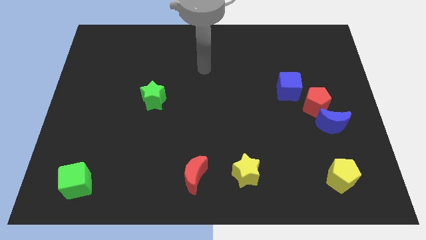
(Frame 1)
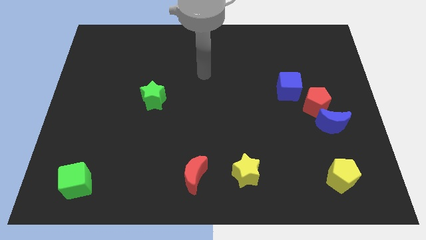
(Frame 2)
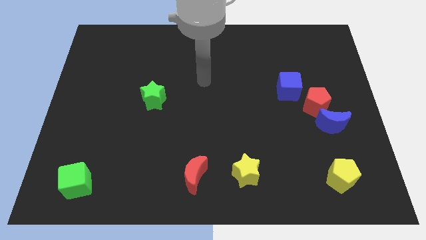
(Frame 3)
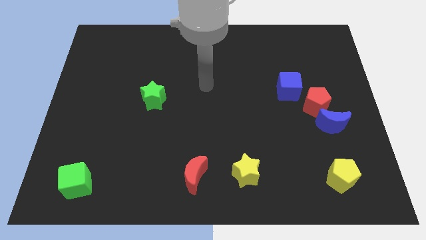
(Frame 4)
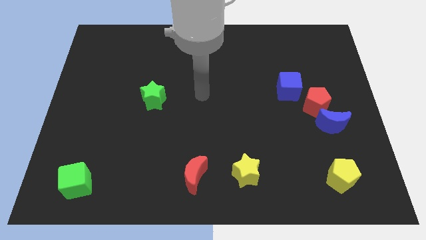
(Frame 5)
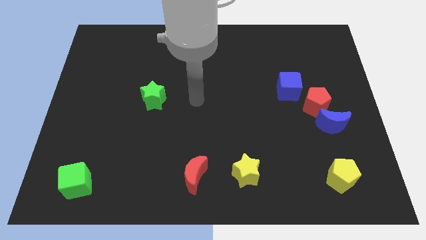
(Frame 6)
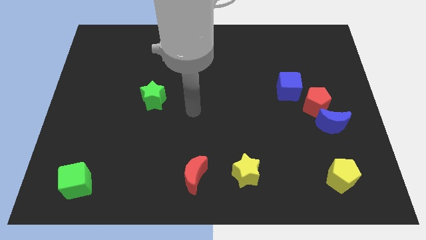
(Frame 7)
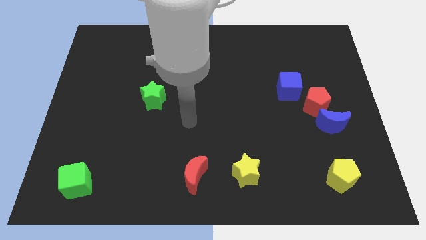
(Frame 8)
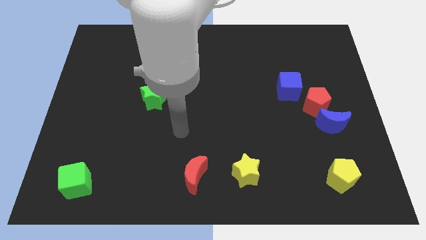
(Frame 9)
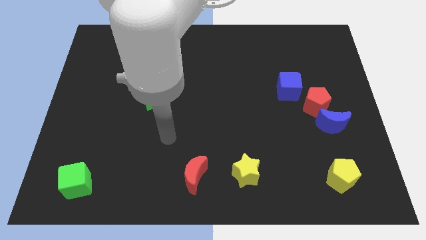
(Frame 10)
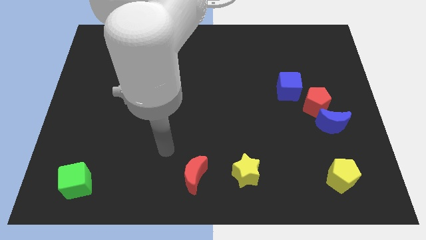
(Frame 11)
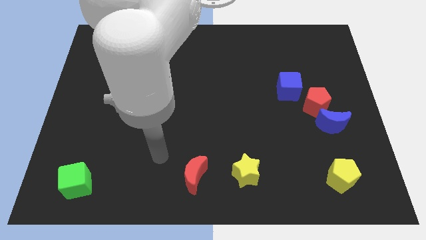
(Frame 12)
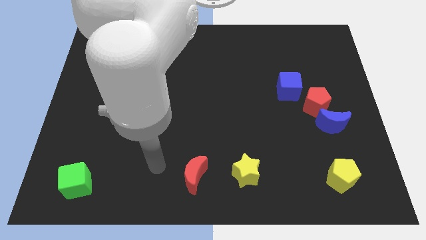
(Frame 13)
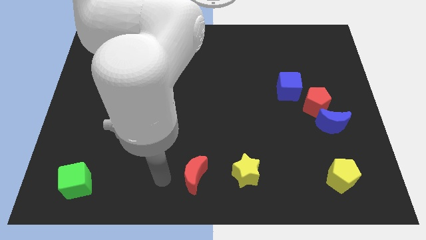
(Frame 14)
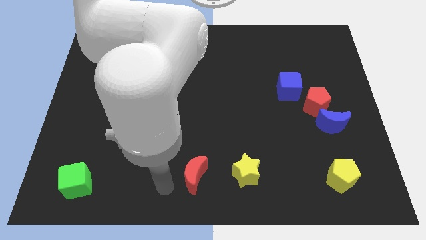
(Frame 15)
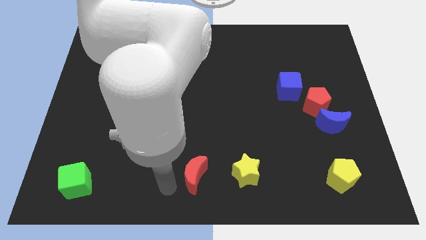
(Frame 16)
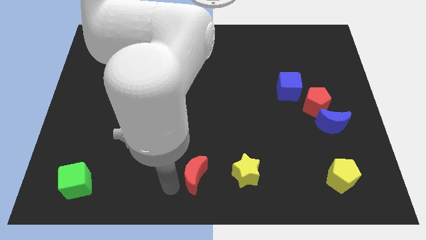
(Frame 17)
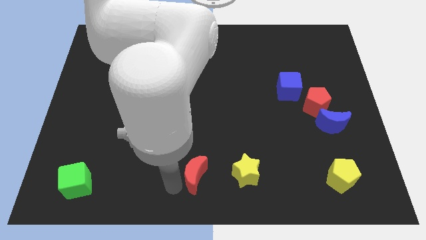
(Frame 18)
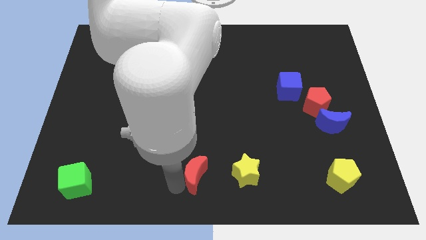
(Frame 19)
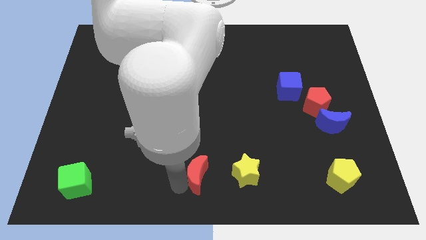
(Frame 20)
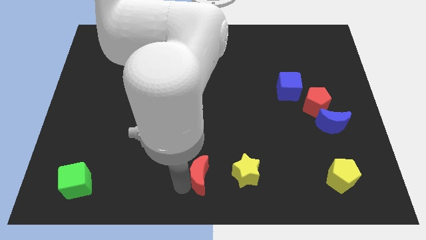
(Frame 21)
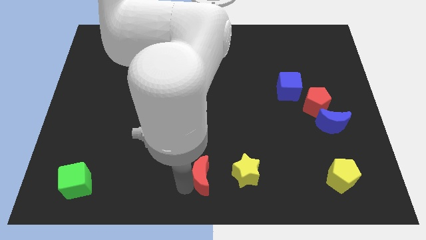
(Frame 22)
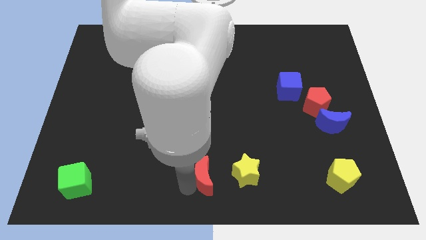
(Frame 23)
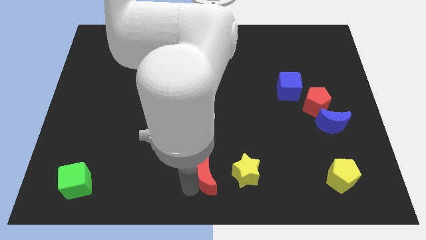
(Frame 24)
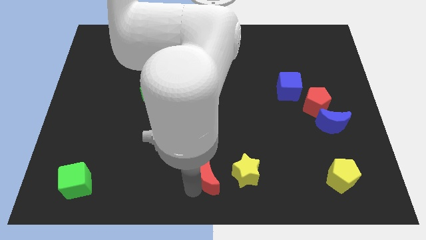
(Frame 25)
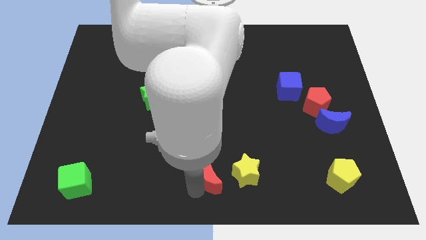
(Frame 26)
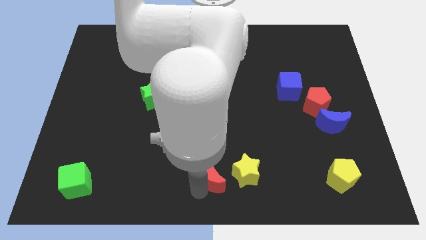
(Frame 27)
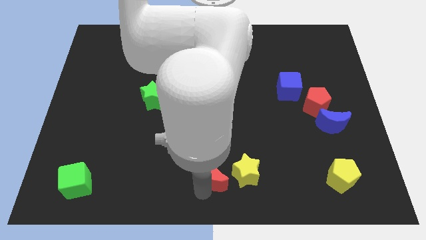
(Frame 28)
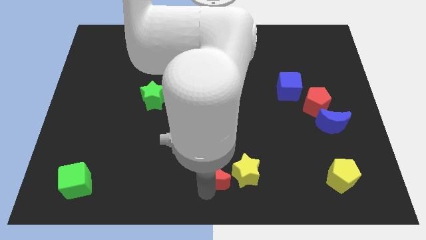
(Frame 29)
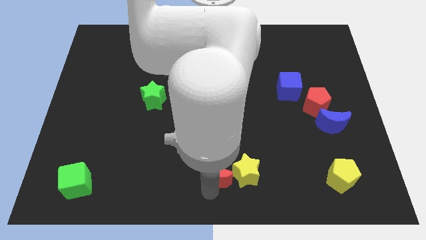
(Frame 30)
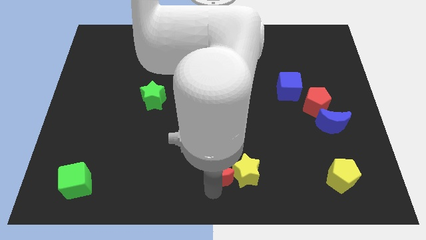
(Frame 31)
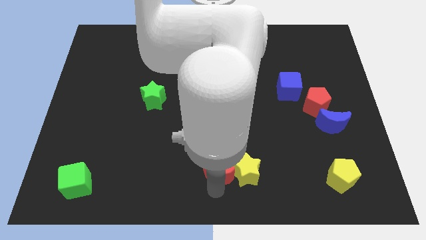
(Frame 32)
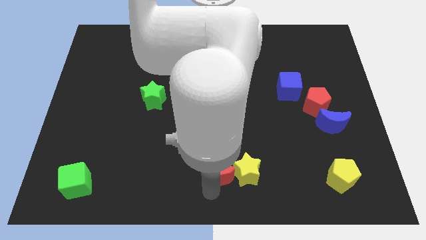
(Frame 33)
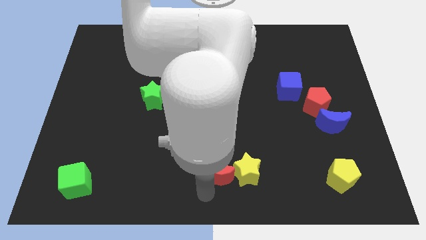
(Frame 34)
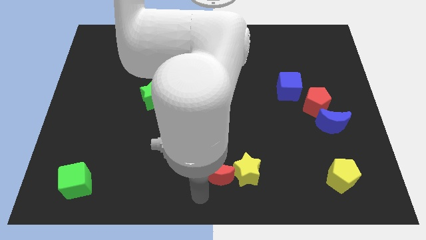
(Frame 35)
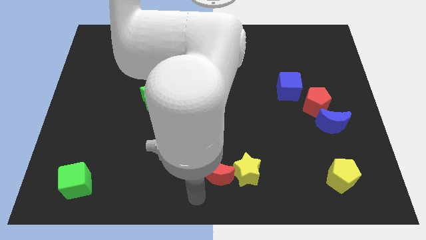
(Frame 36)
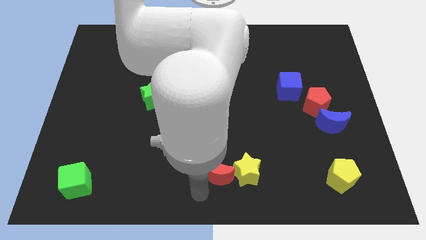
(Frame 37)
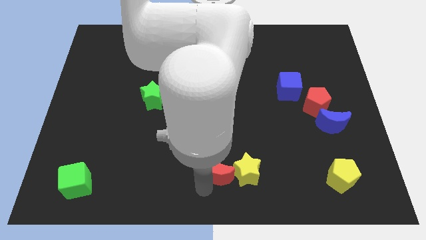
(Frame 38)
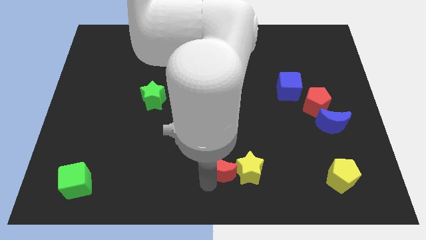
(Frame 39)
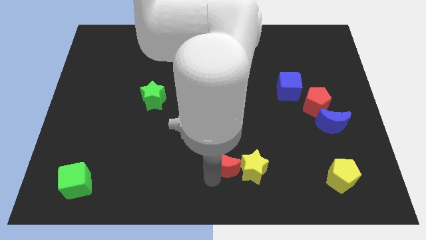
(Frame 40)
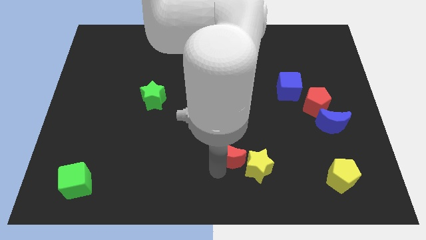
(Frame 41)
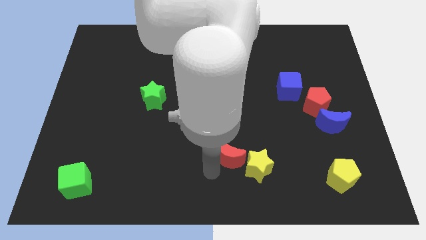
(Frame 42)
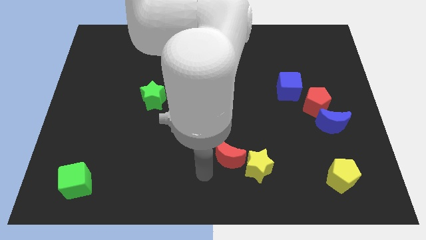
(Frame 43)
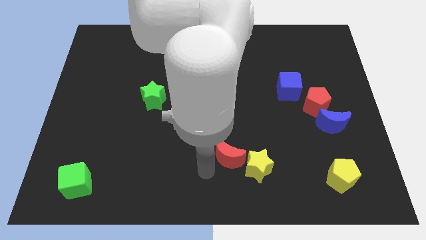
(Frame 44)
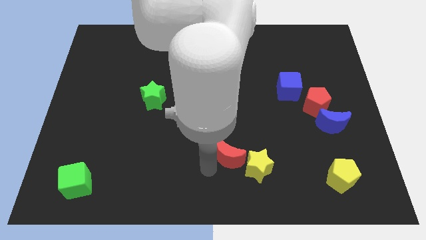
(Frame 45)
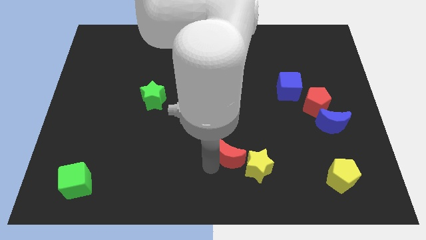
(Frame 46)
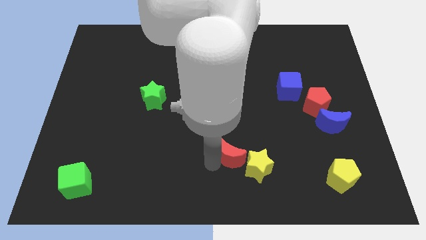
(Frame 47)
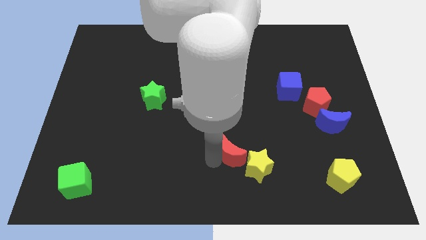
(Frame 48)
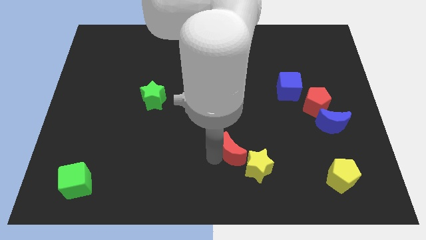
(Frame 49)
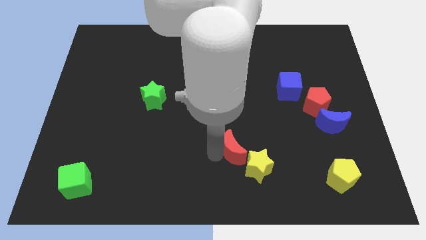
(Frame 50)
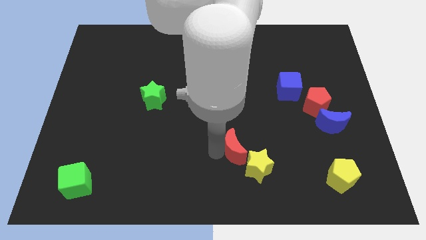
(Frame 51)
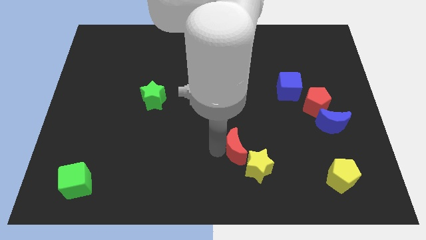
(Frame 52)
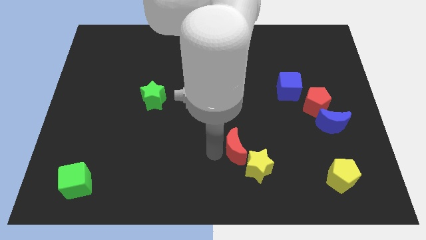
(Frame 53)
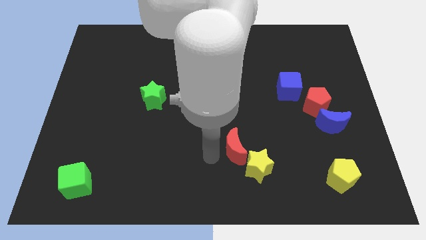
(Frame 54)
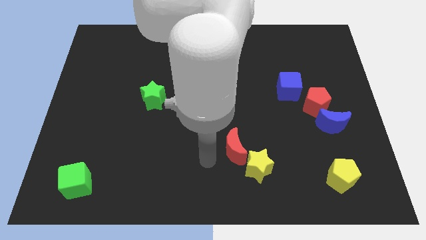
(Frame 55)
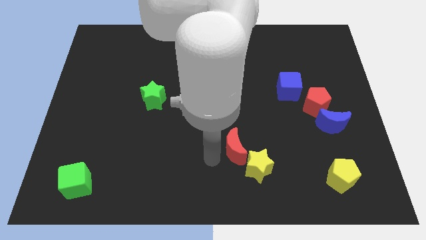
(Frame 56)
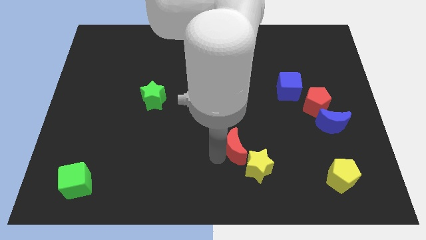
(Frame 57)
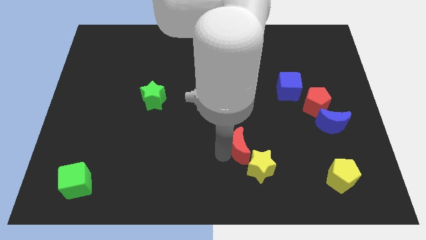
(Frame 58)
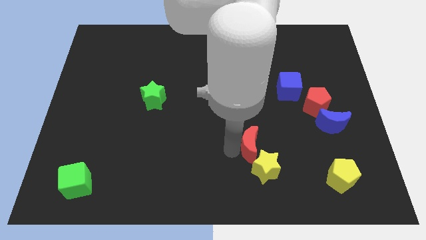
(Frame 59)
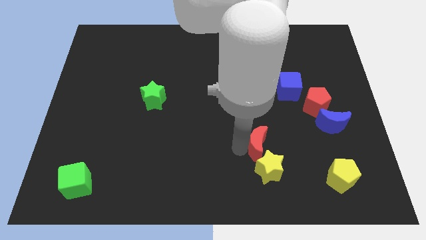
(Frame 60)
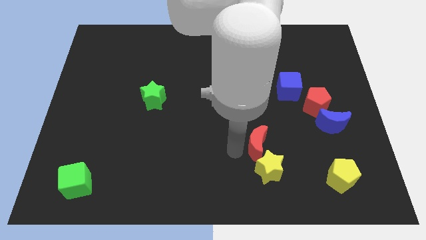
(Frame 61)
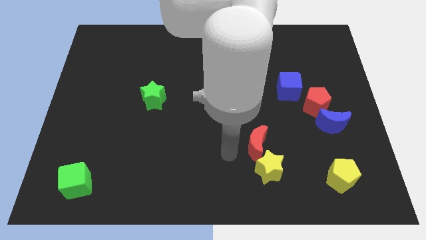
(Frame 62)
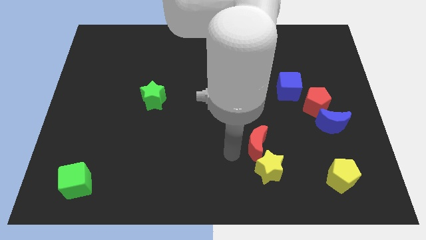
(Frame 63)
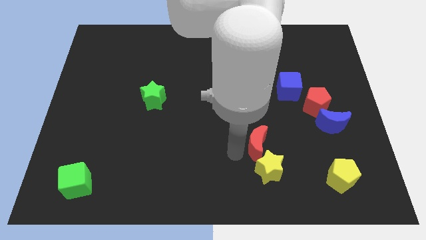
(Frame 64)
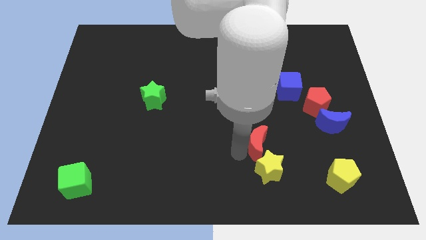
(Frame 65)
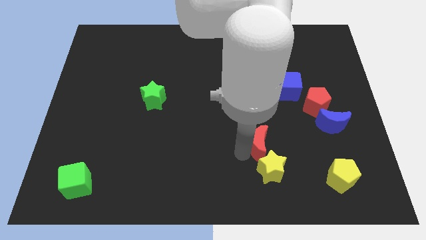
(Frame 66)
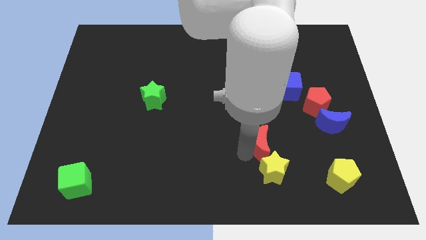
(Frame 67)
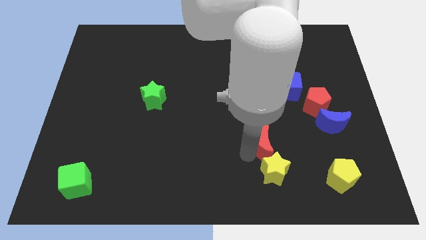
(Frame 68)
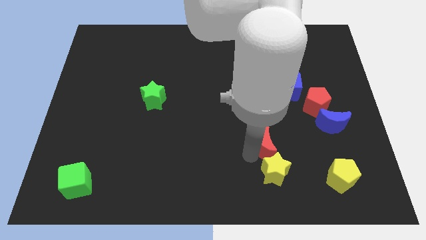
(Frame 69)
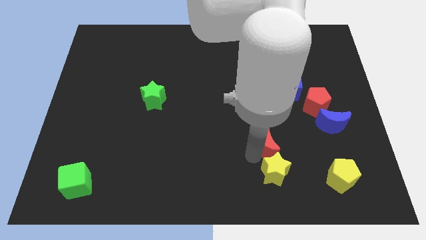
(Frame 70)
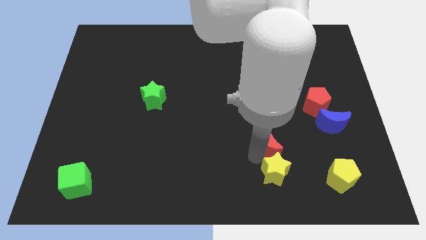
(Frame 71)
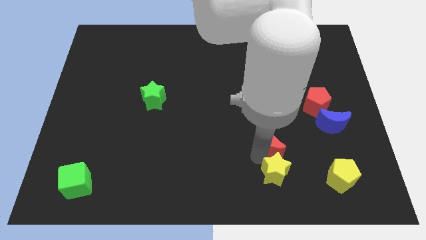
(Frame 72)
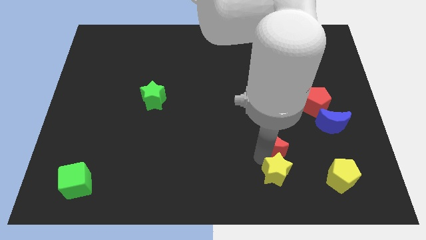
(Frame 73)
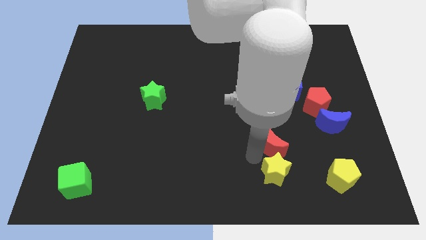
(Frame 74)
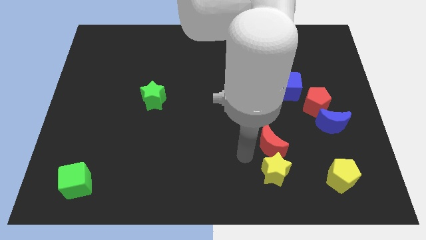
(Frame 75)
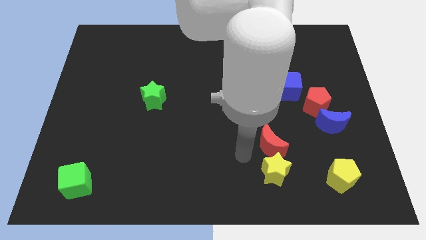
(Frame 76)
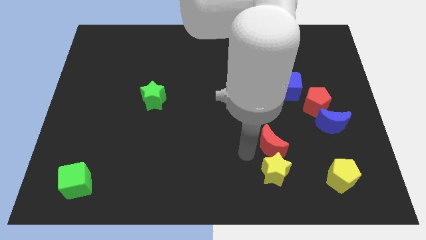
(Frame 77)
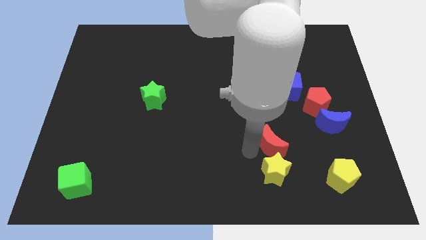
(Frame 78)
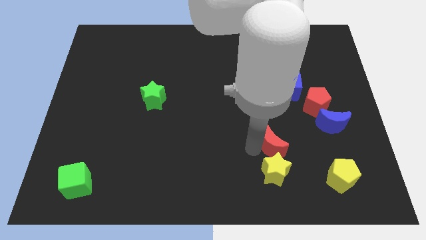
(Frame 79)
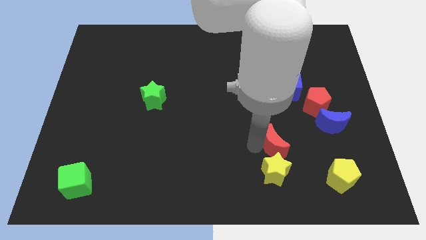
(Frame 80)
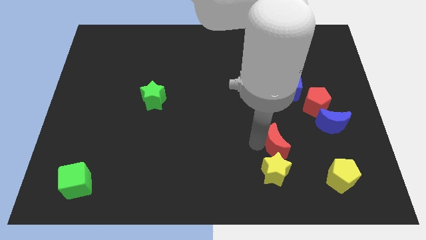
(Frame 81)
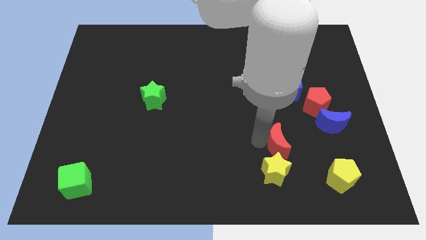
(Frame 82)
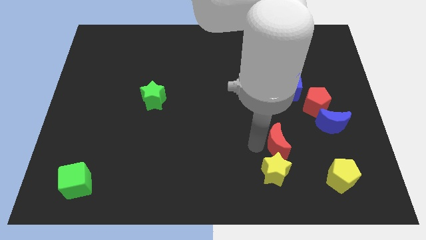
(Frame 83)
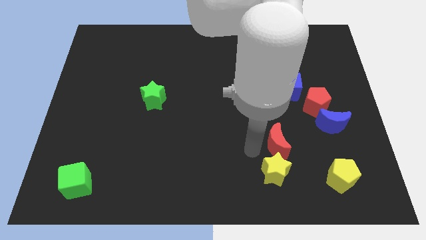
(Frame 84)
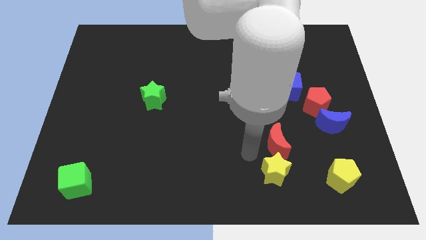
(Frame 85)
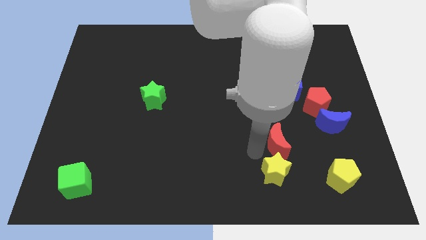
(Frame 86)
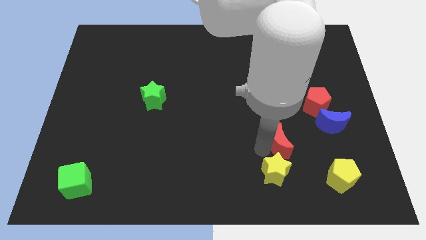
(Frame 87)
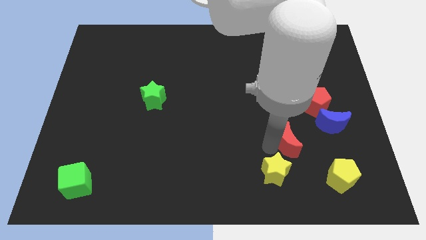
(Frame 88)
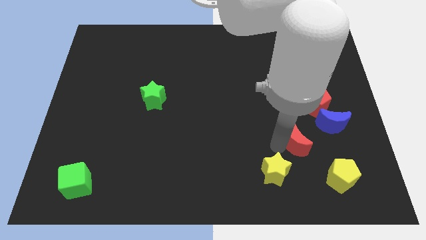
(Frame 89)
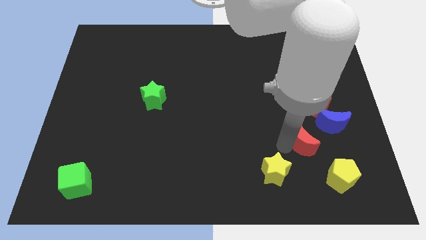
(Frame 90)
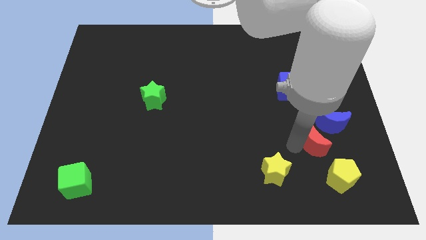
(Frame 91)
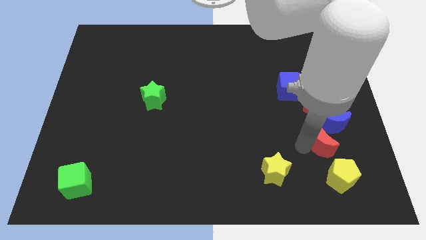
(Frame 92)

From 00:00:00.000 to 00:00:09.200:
move the red moon close to the blue moon
